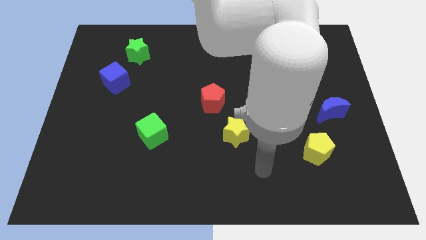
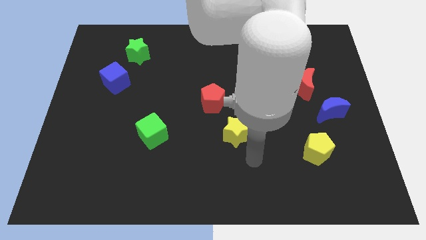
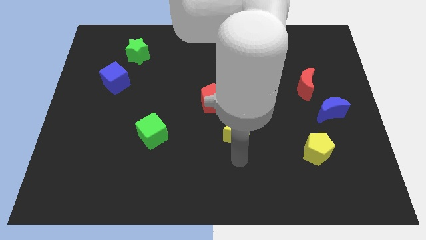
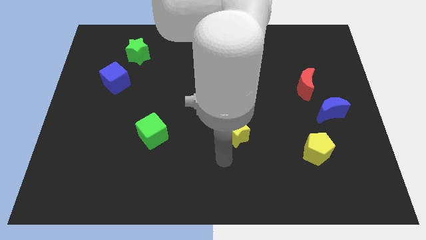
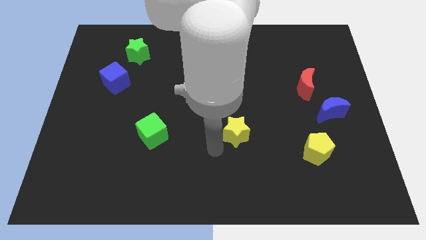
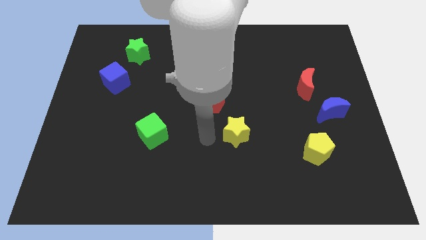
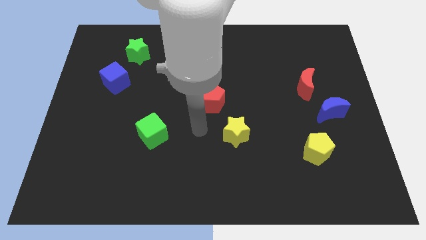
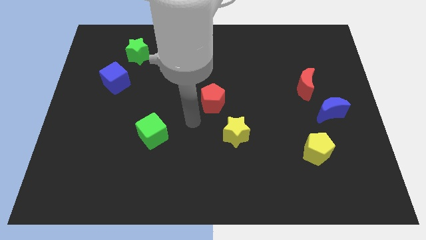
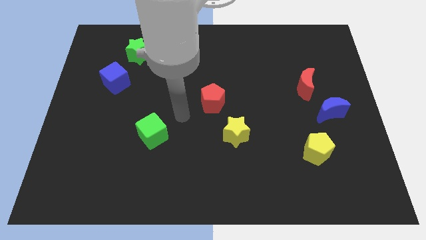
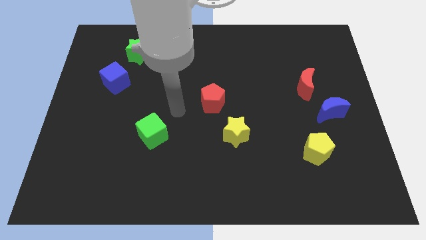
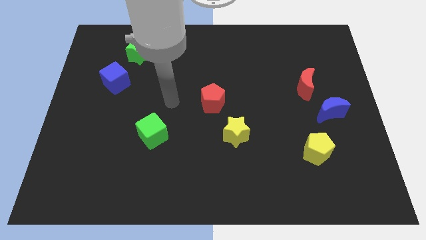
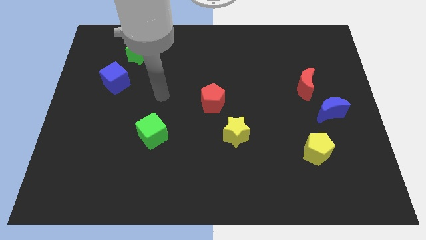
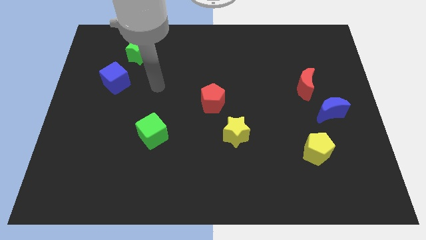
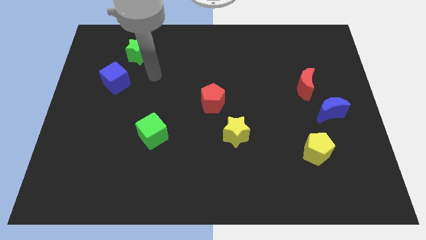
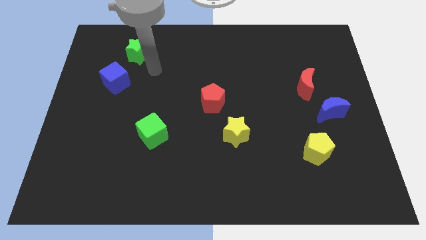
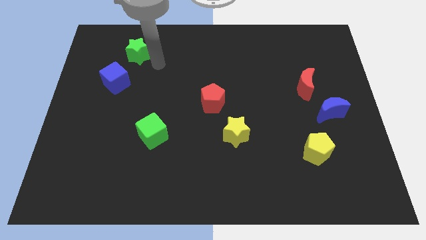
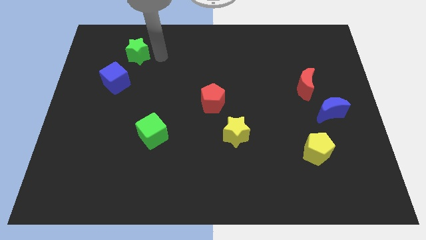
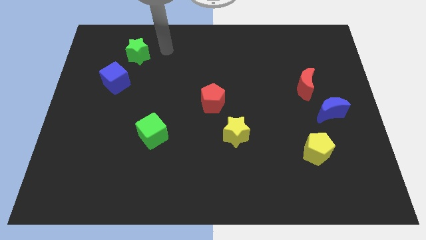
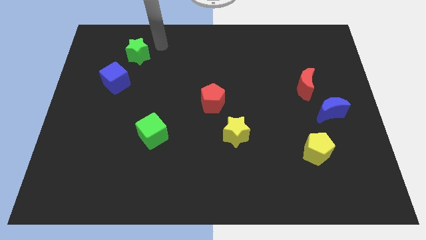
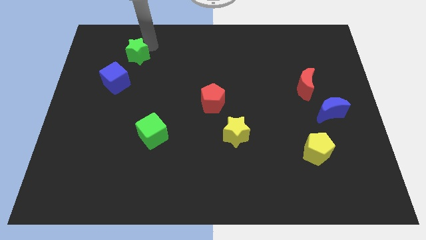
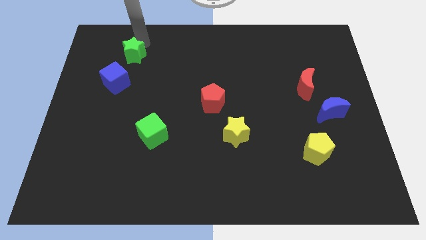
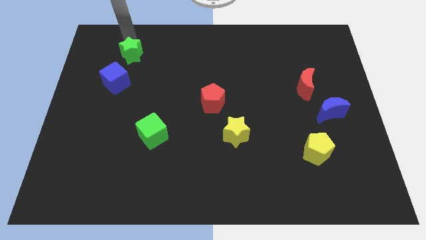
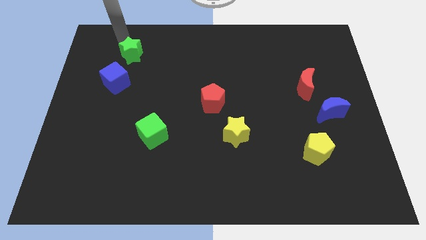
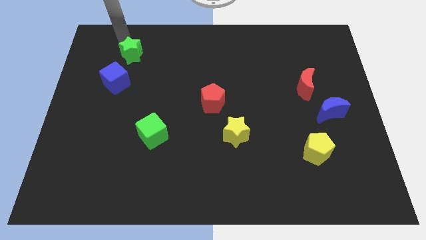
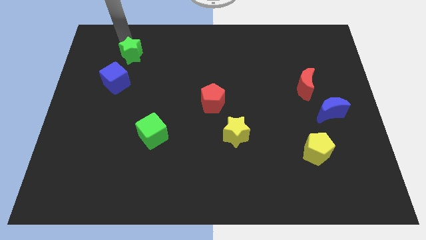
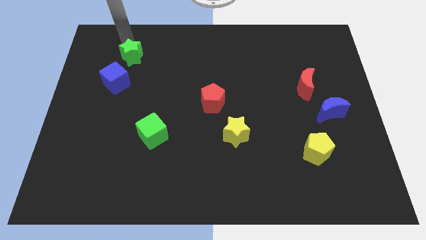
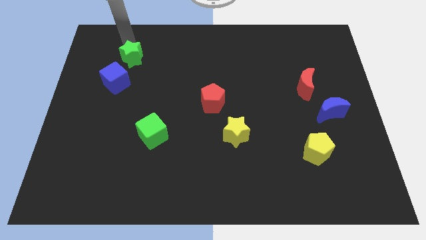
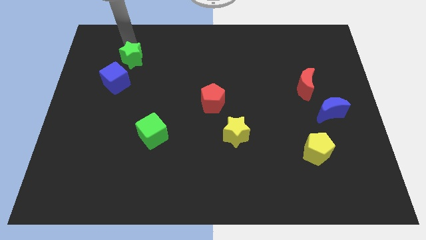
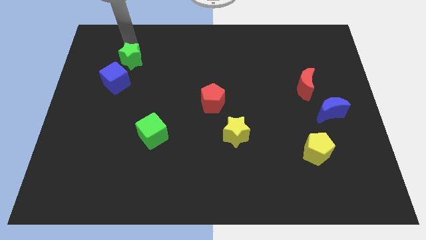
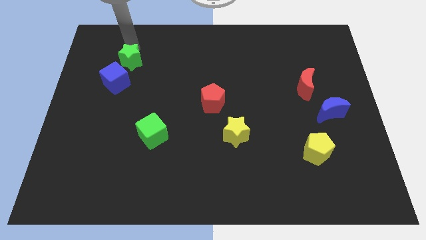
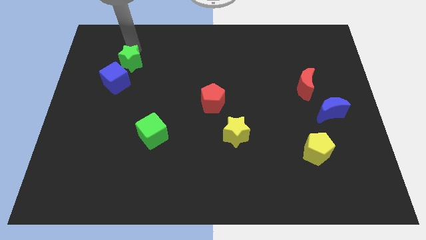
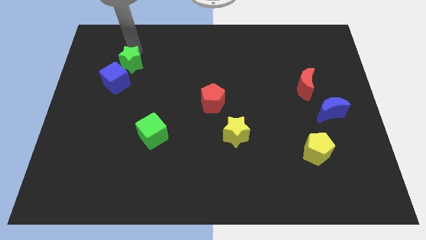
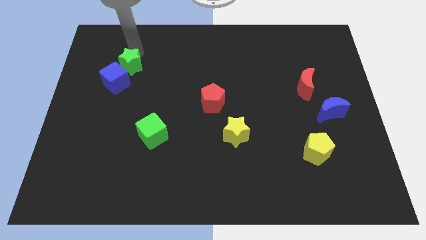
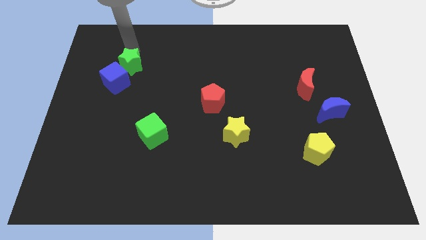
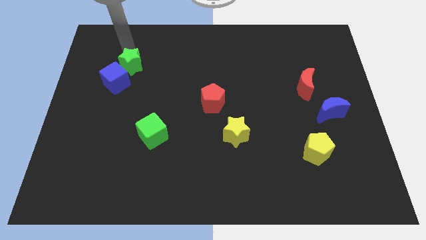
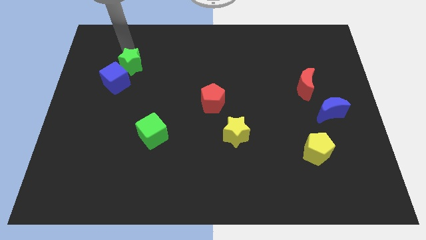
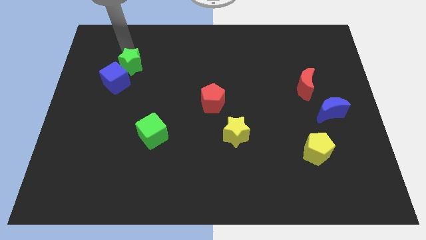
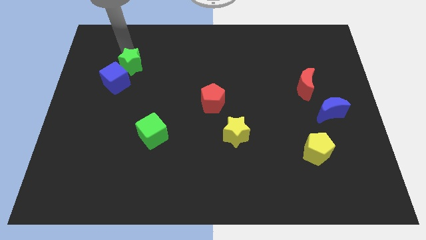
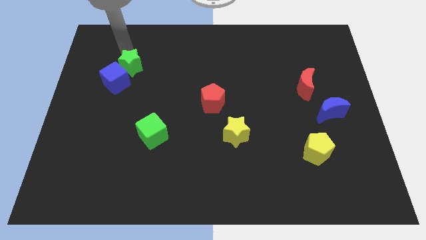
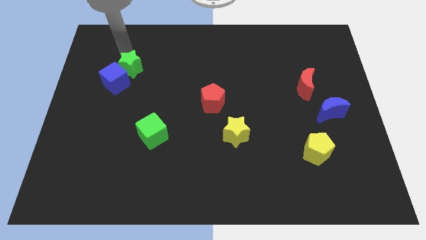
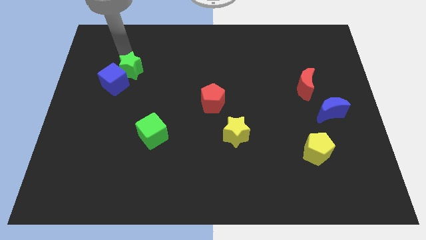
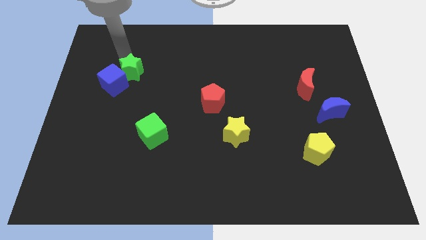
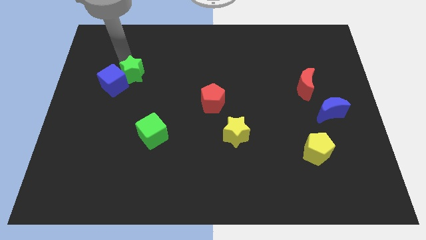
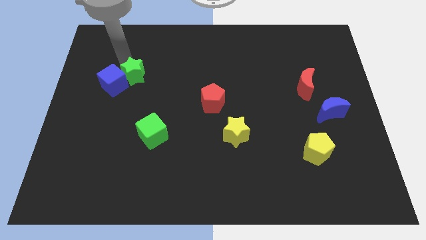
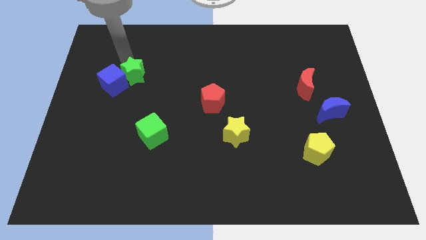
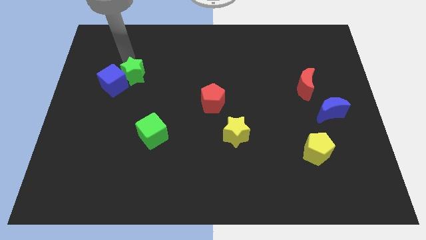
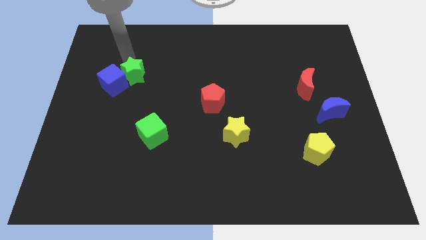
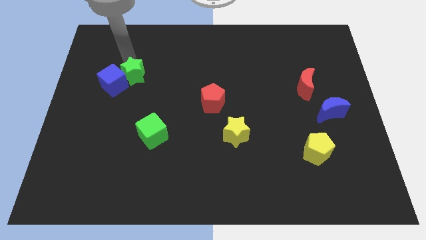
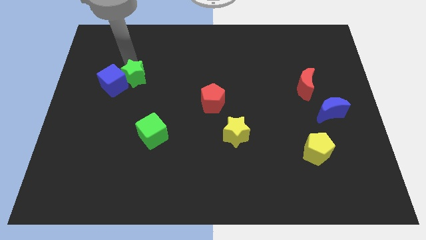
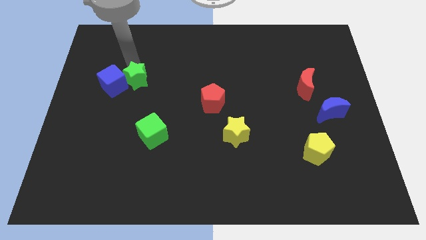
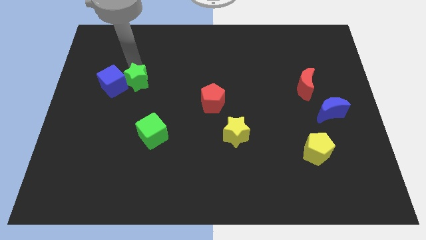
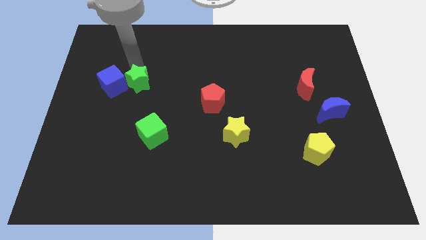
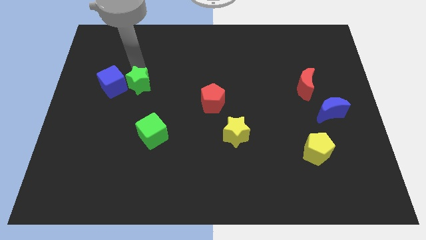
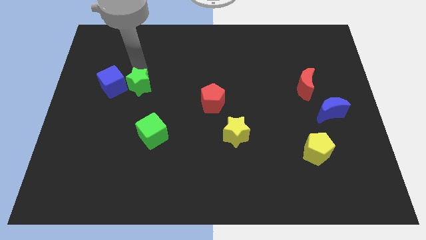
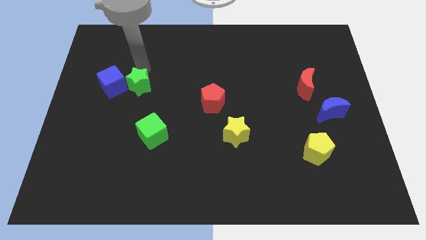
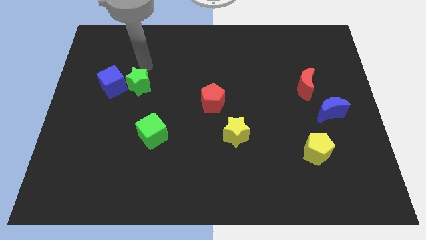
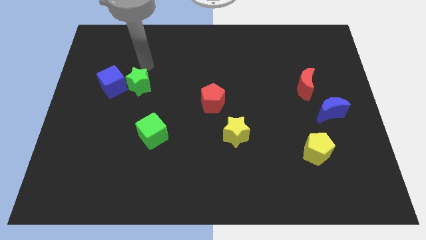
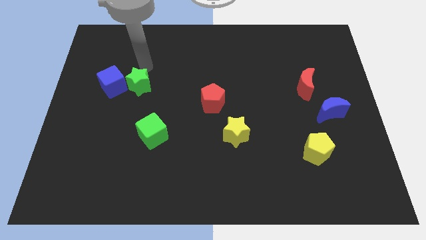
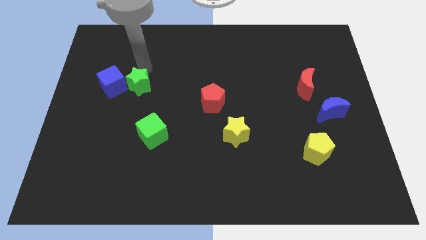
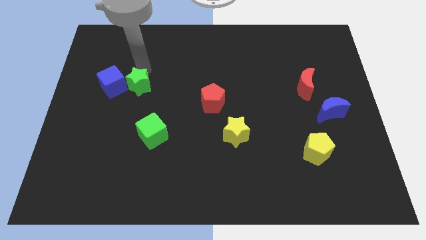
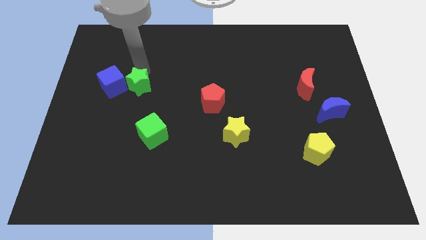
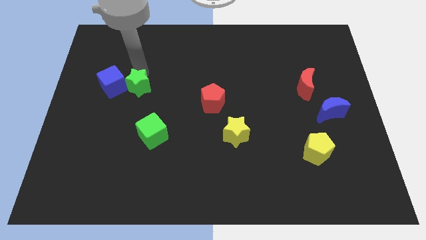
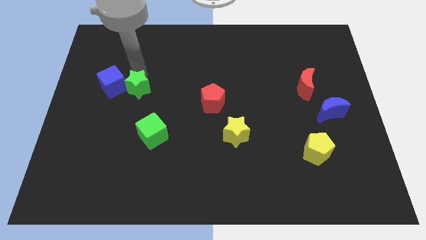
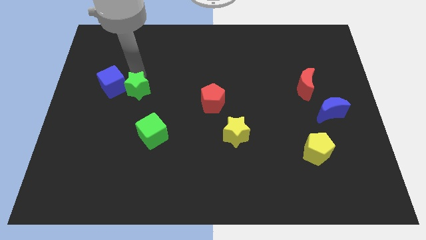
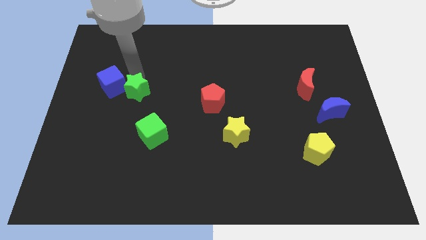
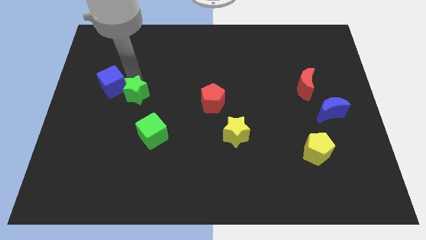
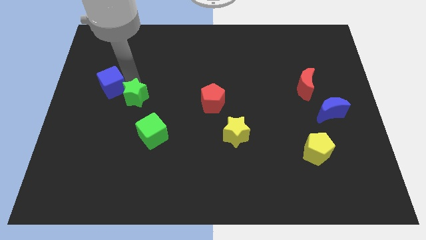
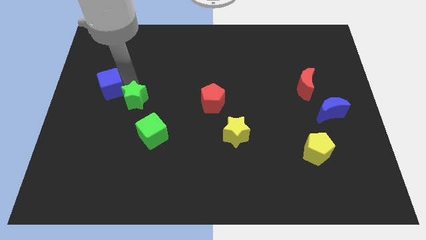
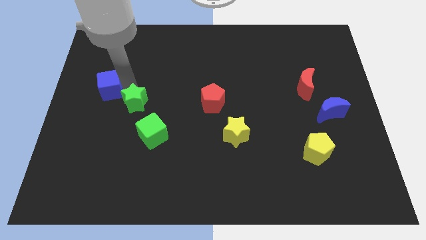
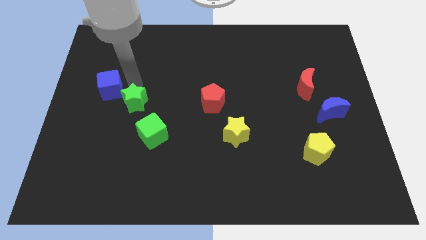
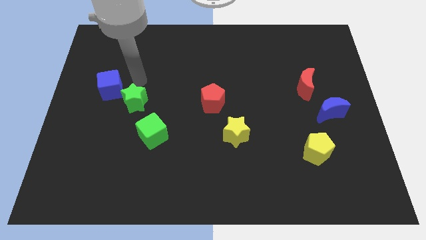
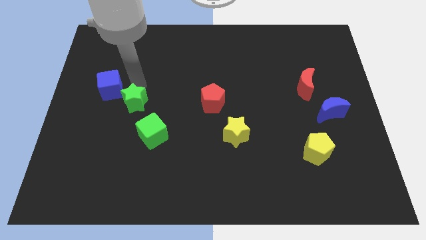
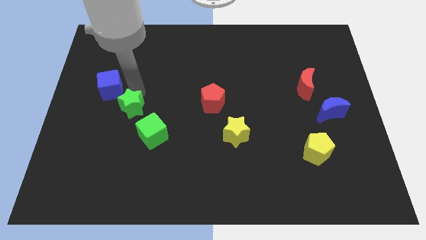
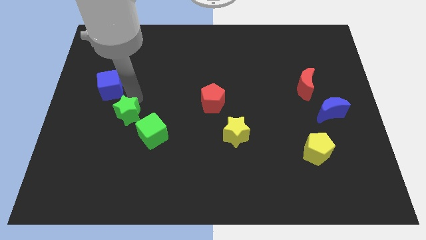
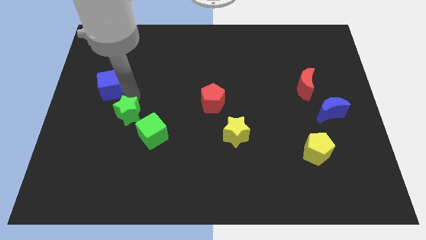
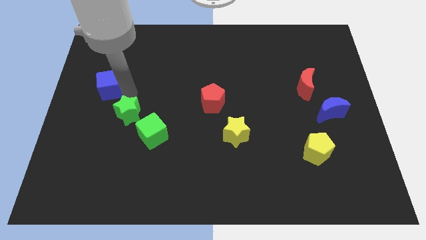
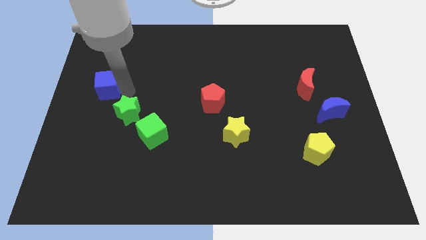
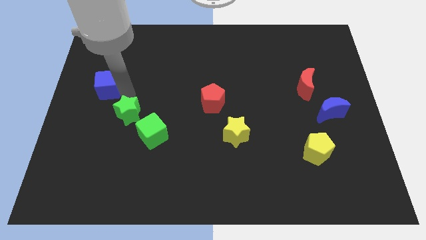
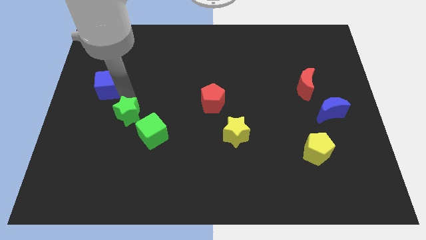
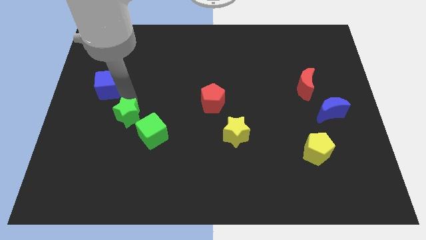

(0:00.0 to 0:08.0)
push the green star down

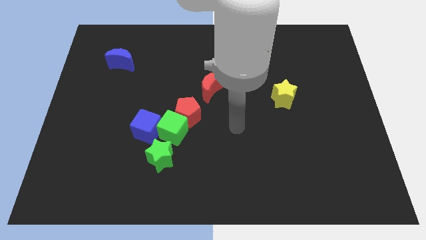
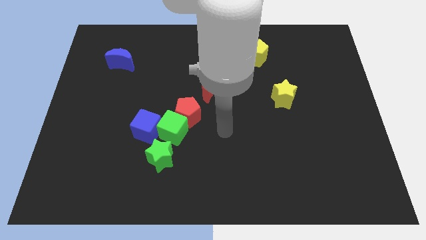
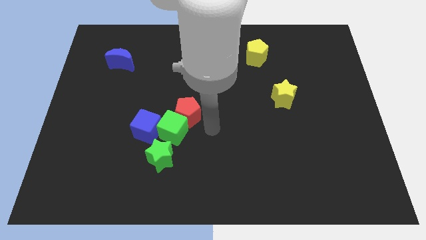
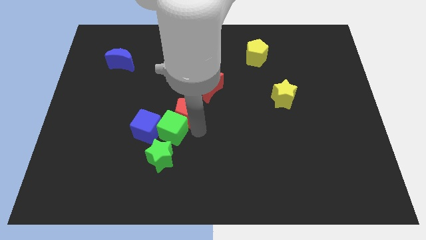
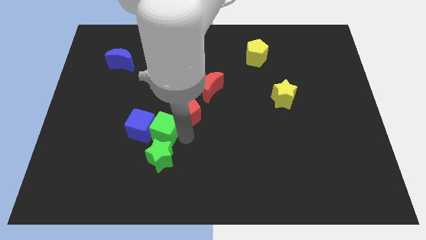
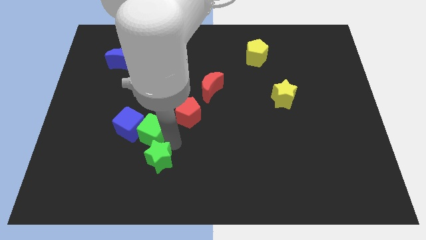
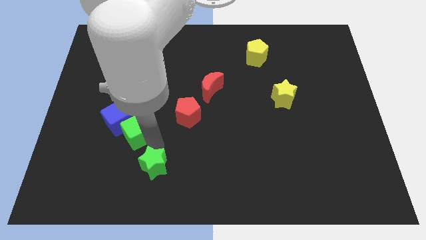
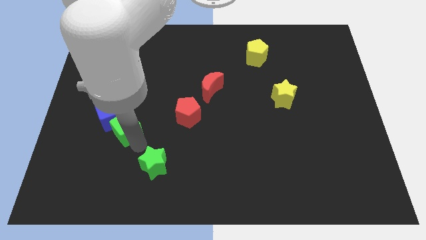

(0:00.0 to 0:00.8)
slightly move the blue cube up and left diagonally
